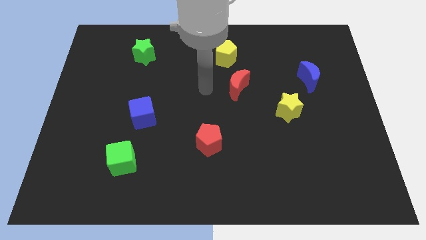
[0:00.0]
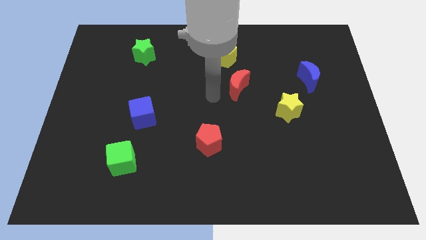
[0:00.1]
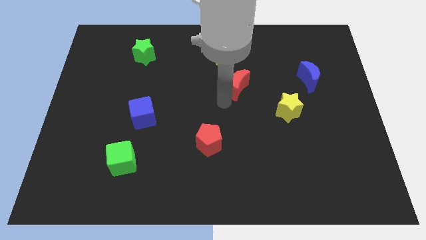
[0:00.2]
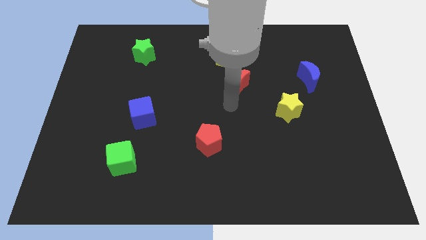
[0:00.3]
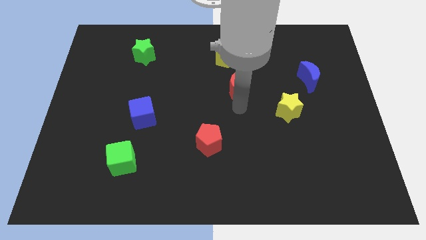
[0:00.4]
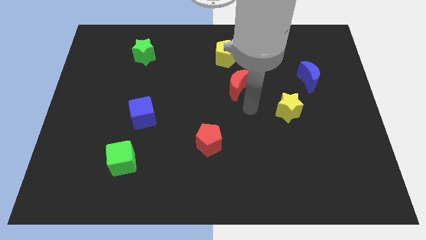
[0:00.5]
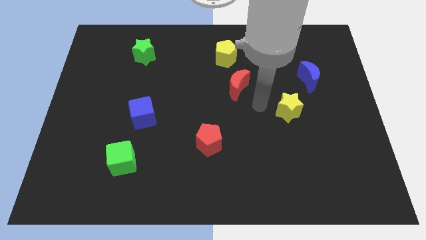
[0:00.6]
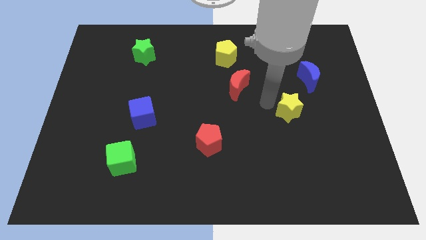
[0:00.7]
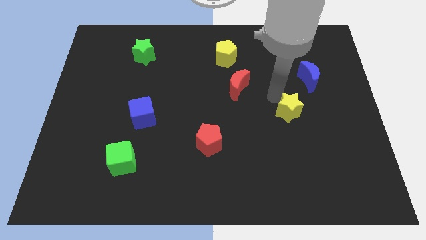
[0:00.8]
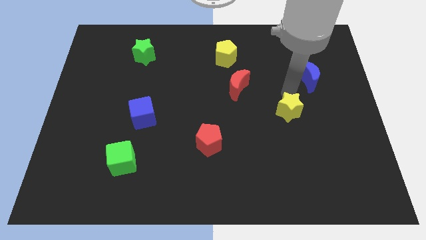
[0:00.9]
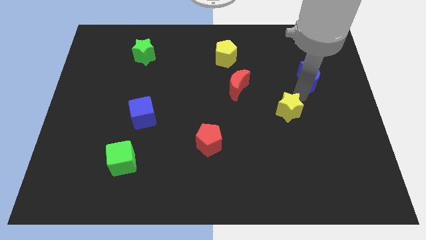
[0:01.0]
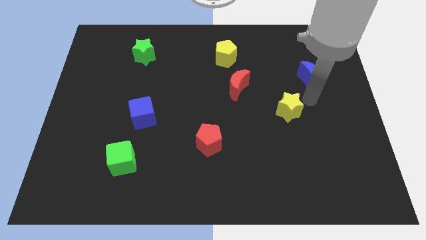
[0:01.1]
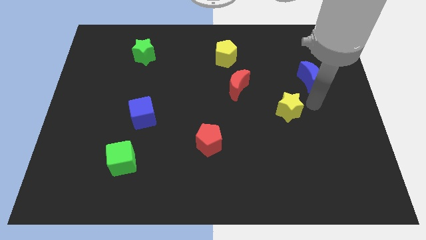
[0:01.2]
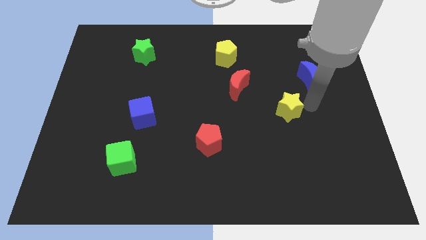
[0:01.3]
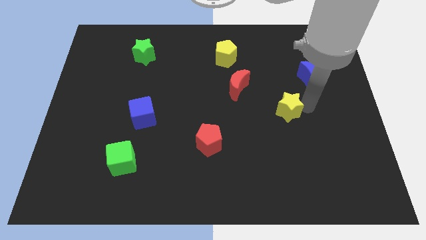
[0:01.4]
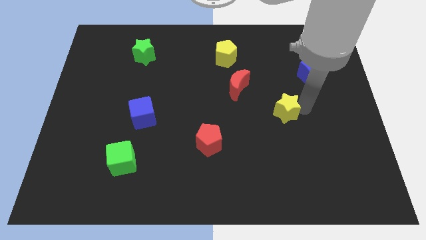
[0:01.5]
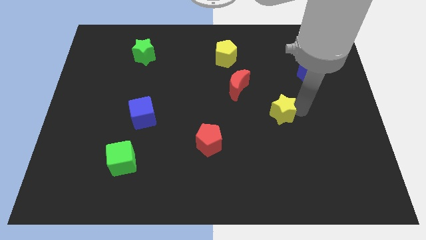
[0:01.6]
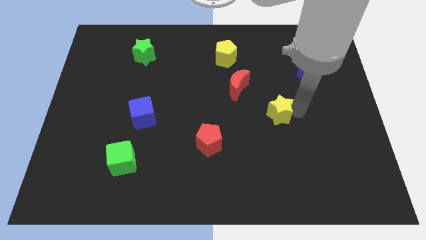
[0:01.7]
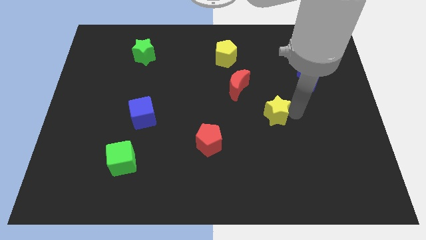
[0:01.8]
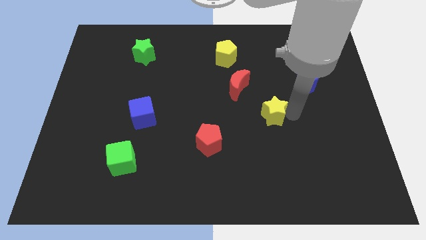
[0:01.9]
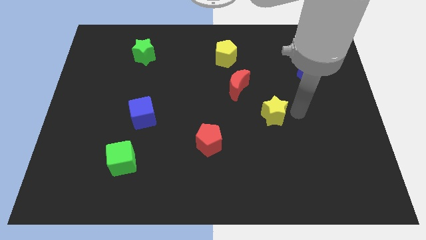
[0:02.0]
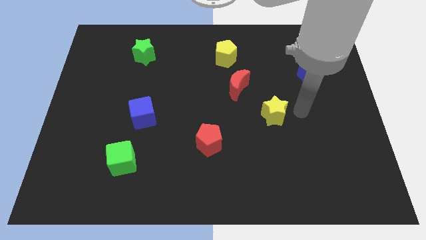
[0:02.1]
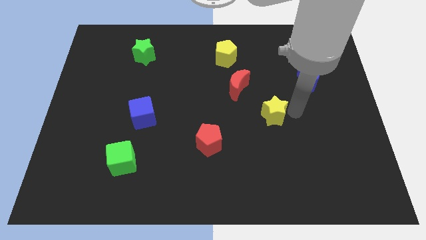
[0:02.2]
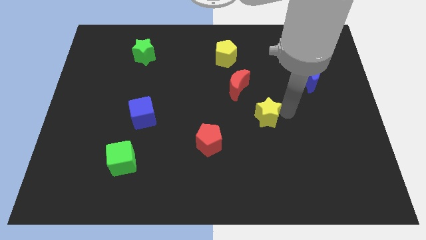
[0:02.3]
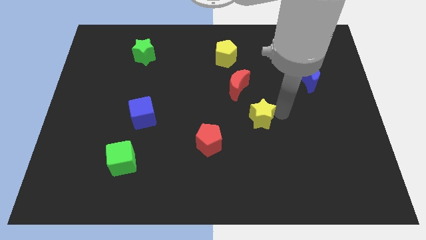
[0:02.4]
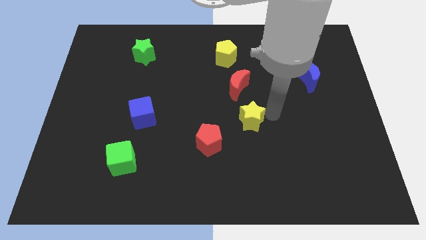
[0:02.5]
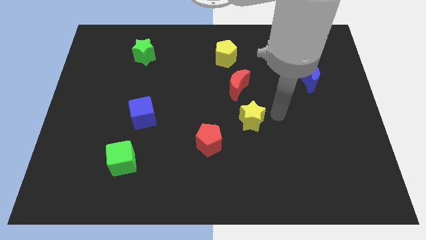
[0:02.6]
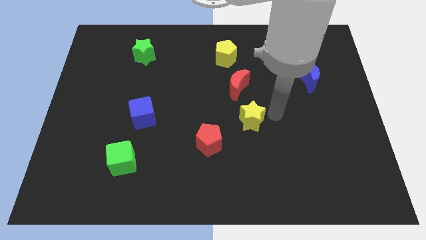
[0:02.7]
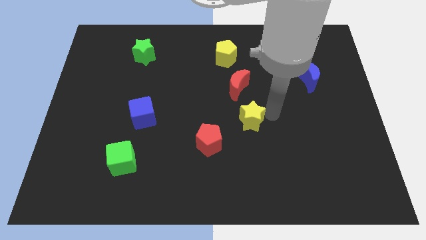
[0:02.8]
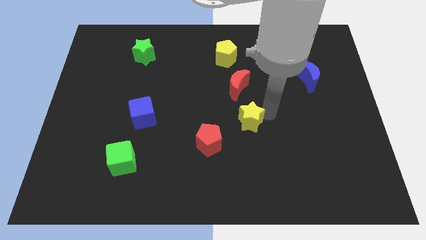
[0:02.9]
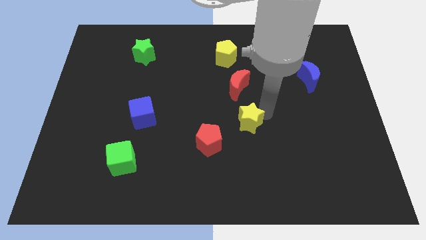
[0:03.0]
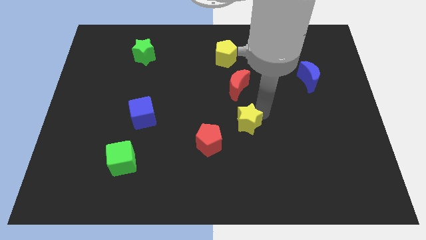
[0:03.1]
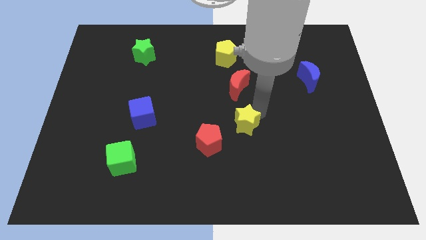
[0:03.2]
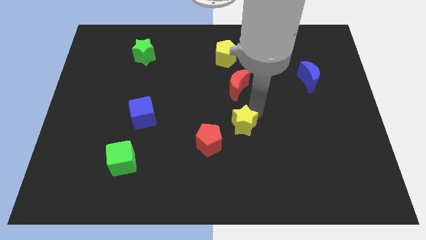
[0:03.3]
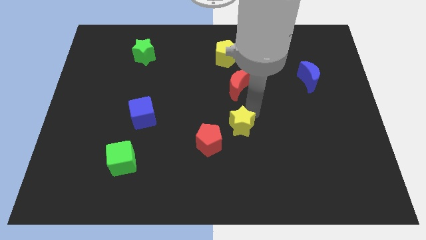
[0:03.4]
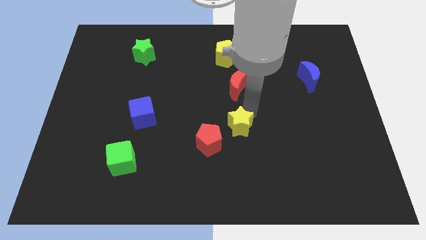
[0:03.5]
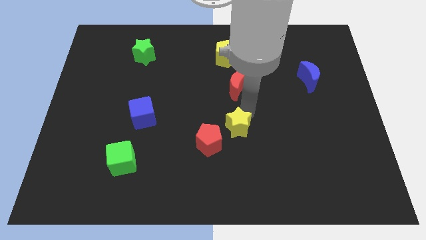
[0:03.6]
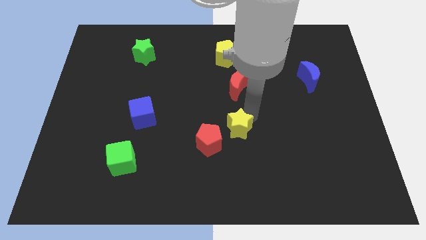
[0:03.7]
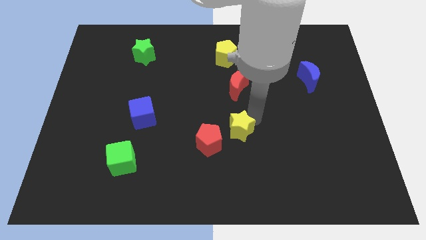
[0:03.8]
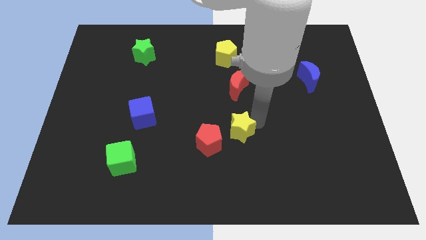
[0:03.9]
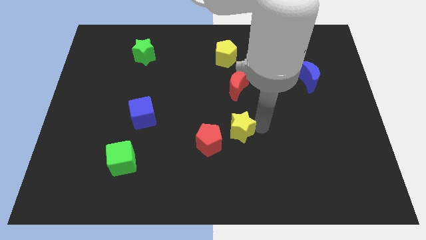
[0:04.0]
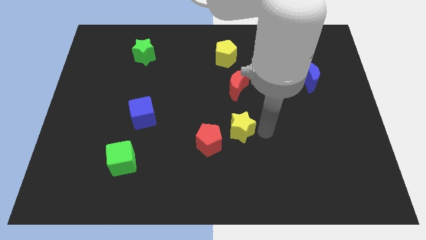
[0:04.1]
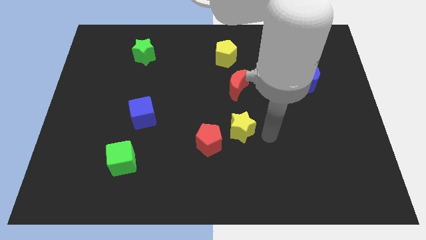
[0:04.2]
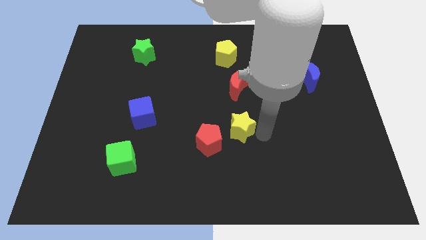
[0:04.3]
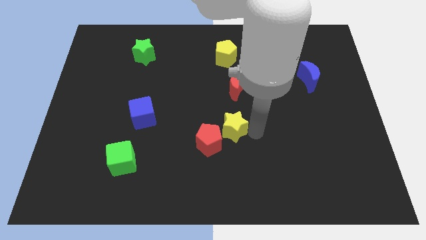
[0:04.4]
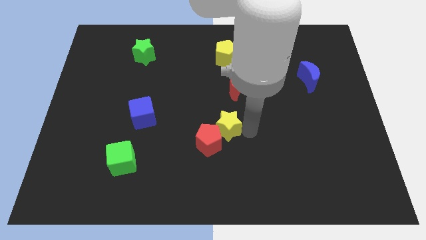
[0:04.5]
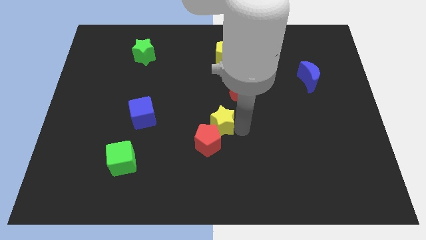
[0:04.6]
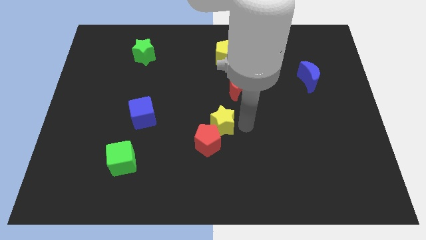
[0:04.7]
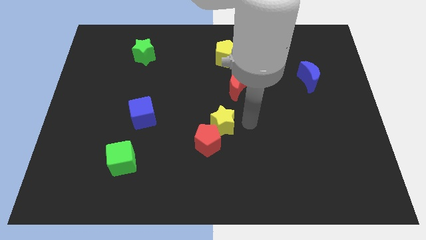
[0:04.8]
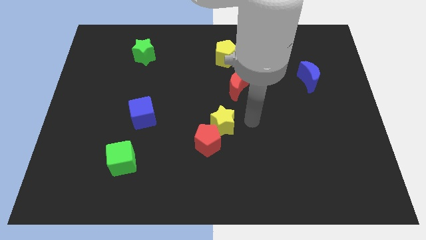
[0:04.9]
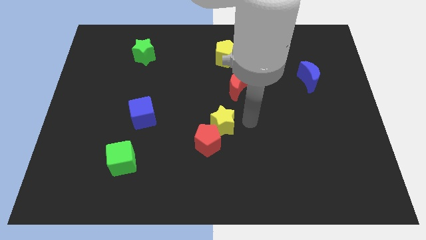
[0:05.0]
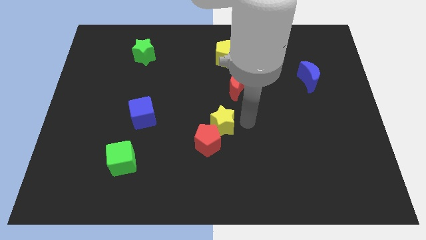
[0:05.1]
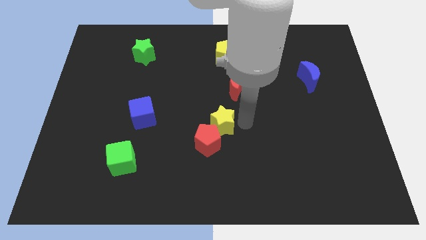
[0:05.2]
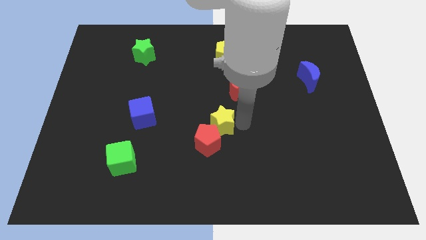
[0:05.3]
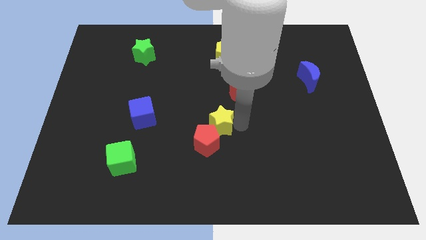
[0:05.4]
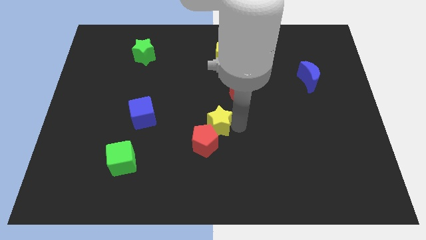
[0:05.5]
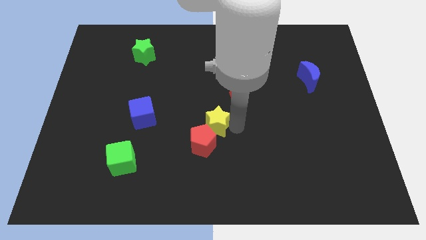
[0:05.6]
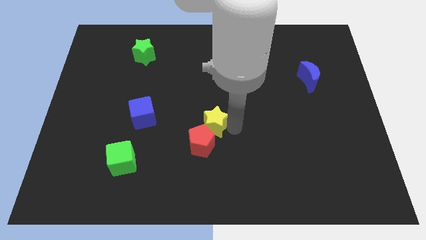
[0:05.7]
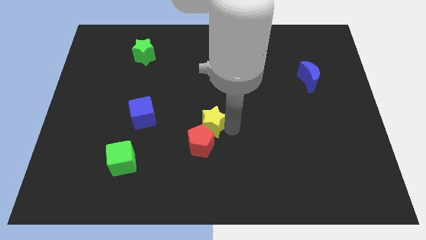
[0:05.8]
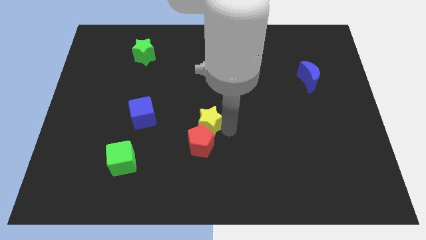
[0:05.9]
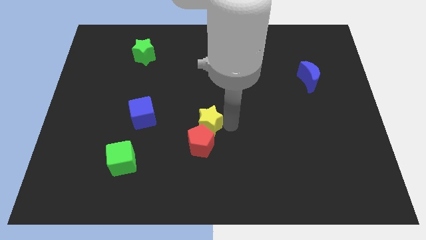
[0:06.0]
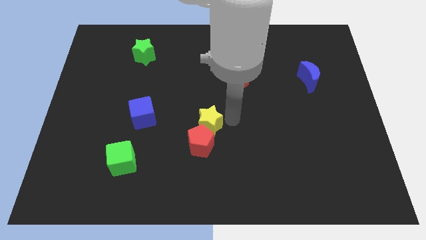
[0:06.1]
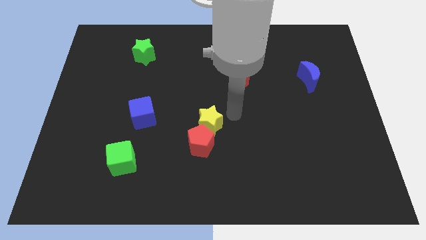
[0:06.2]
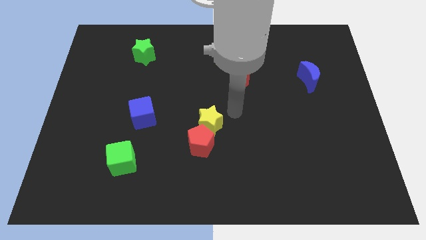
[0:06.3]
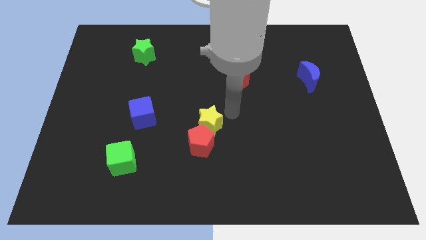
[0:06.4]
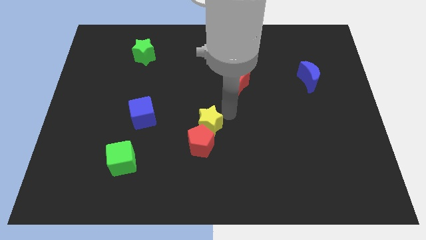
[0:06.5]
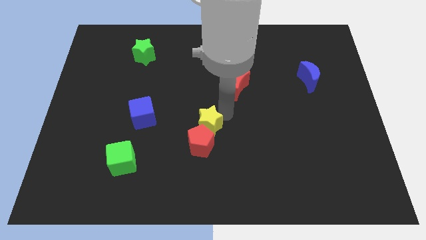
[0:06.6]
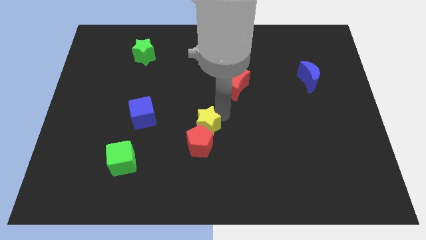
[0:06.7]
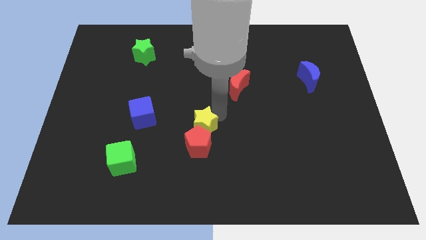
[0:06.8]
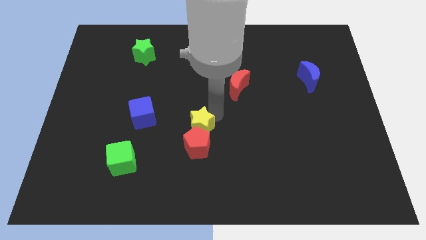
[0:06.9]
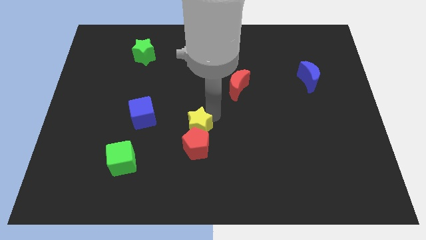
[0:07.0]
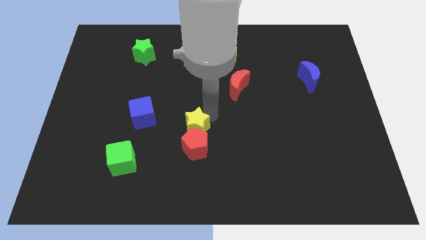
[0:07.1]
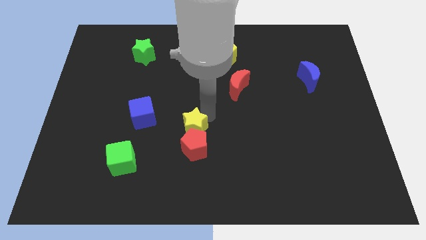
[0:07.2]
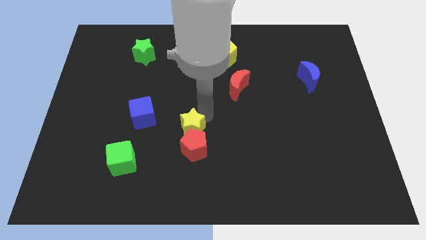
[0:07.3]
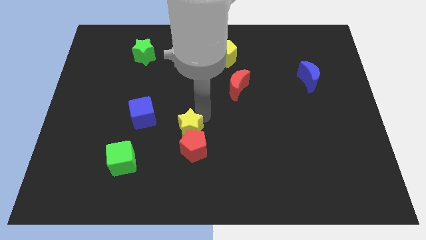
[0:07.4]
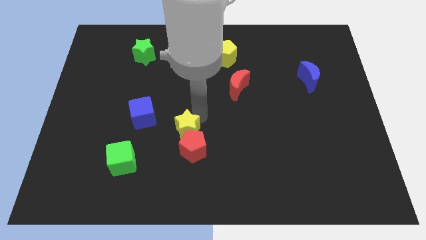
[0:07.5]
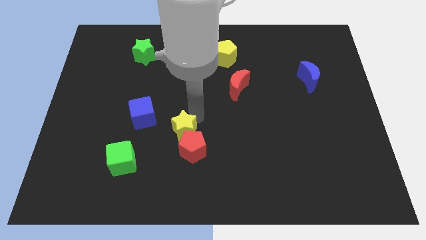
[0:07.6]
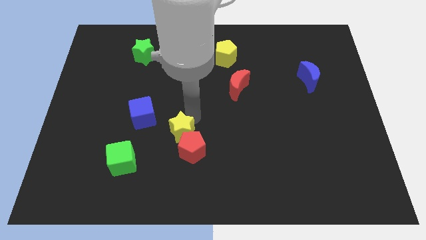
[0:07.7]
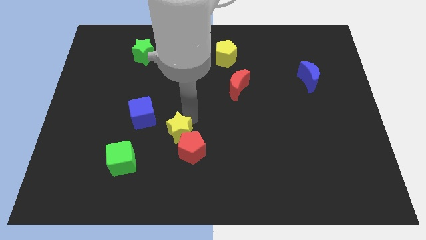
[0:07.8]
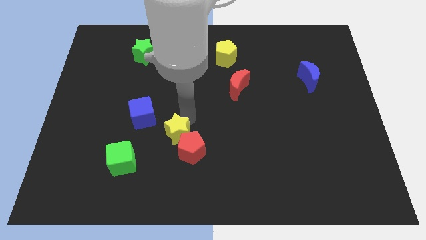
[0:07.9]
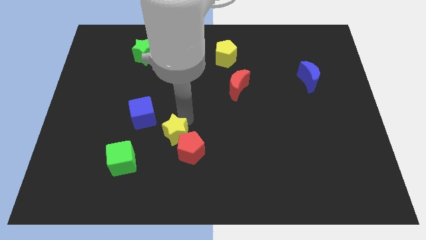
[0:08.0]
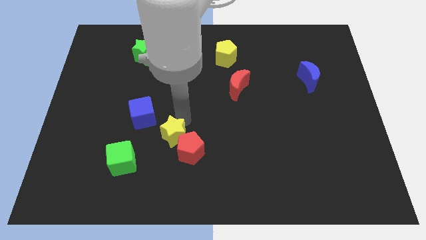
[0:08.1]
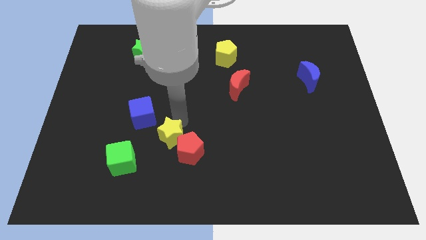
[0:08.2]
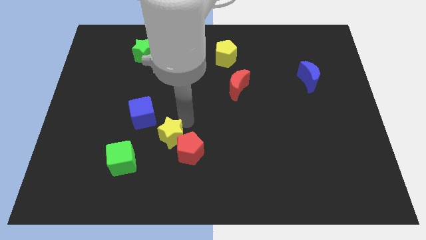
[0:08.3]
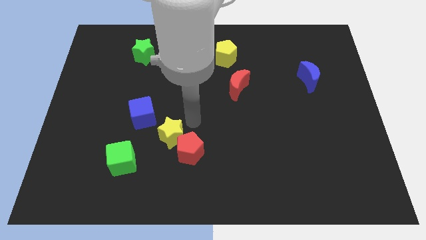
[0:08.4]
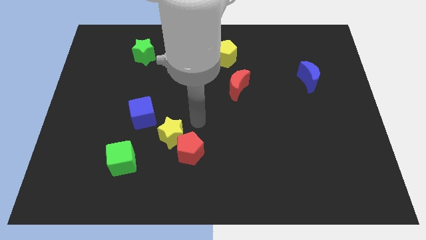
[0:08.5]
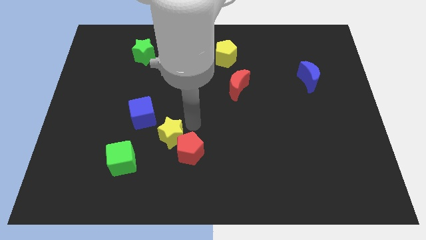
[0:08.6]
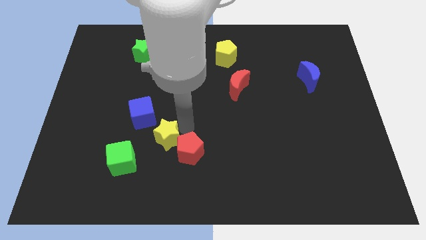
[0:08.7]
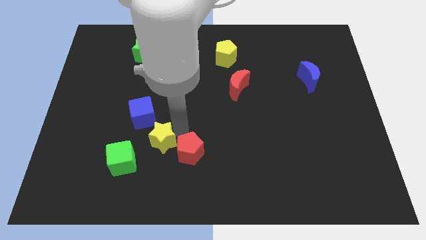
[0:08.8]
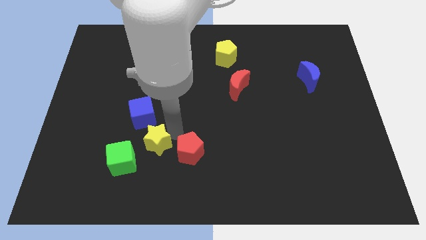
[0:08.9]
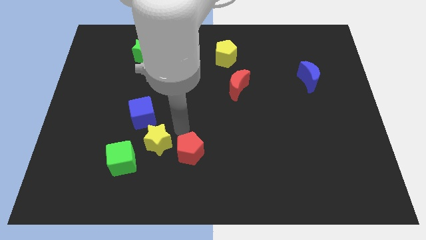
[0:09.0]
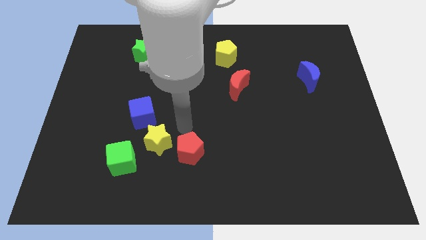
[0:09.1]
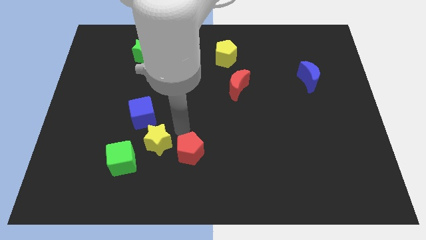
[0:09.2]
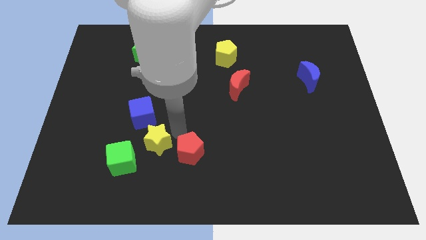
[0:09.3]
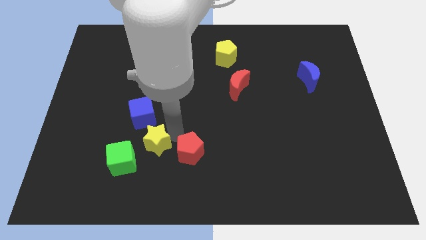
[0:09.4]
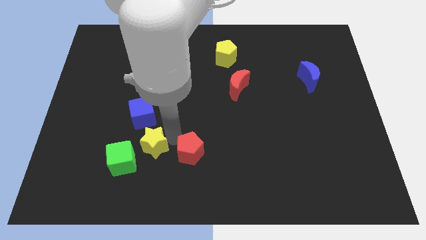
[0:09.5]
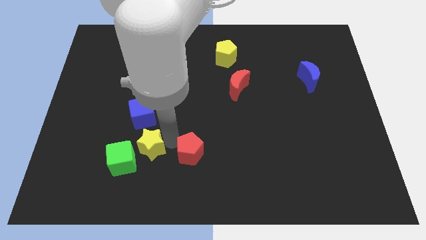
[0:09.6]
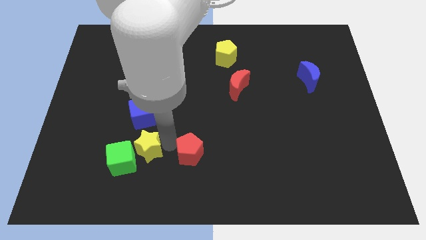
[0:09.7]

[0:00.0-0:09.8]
put the yellow star to the green cube
